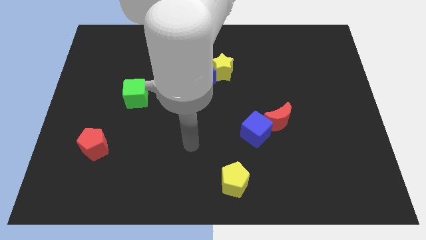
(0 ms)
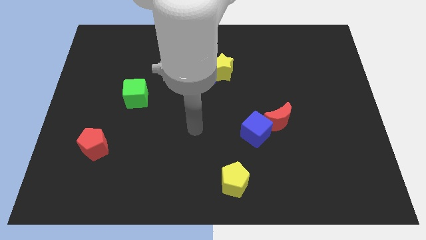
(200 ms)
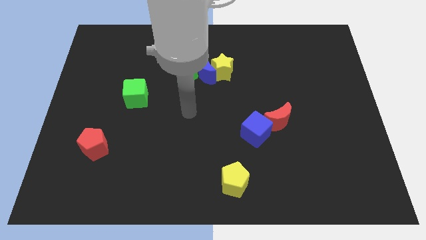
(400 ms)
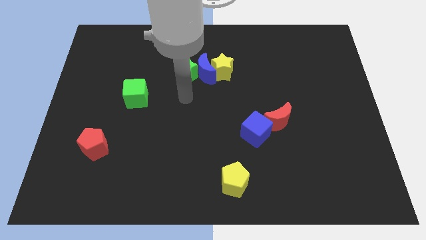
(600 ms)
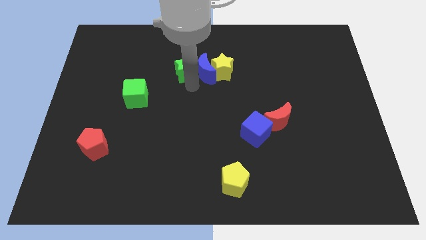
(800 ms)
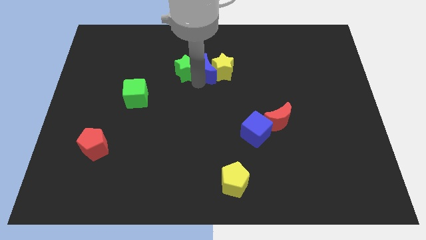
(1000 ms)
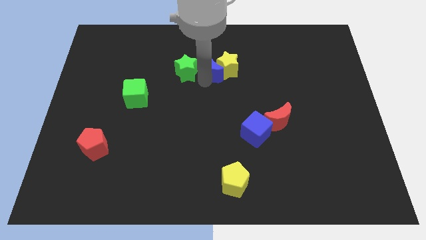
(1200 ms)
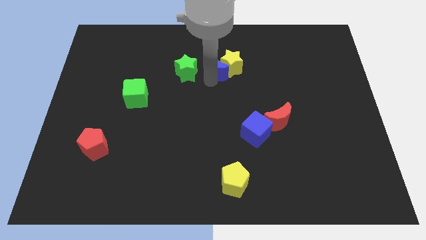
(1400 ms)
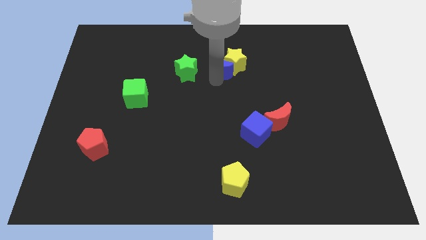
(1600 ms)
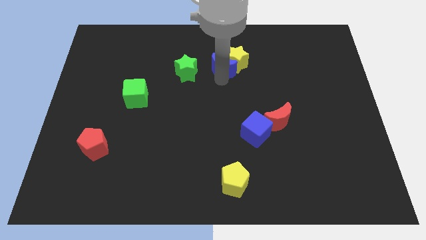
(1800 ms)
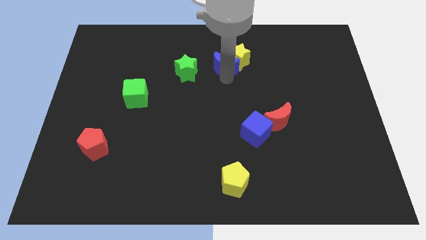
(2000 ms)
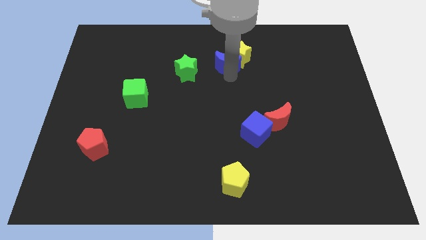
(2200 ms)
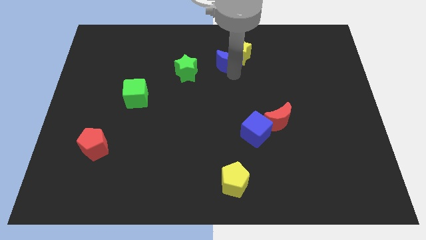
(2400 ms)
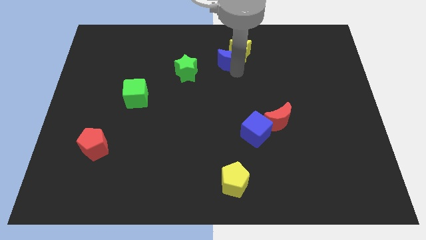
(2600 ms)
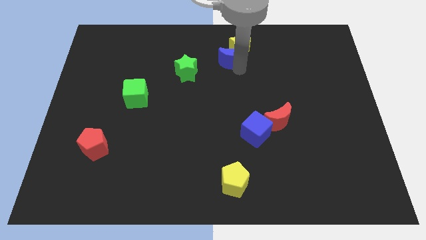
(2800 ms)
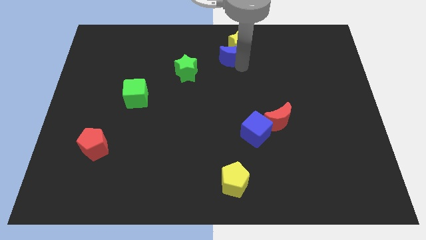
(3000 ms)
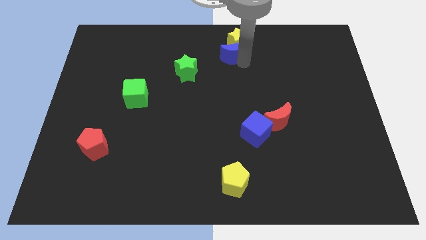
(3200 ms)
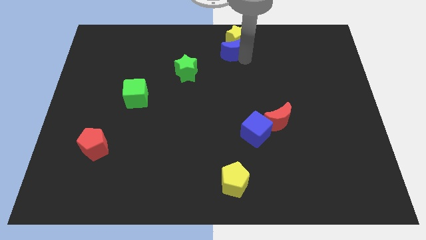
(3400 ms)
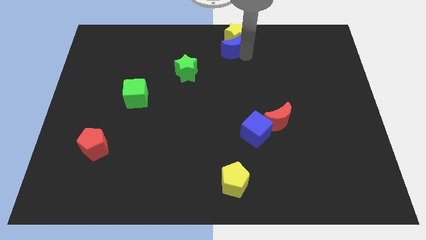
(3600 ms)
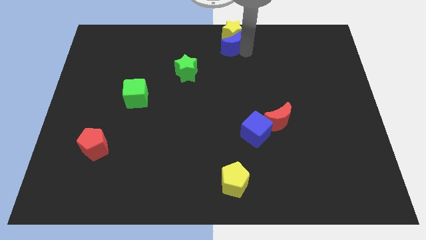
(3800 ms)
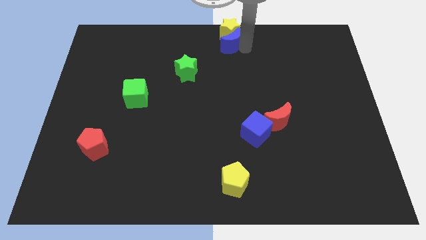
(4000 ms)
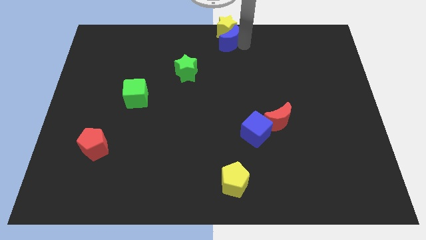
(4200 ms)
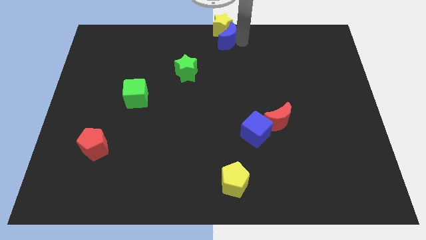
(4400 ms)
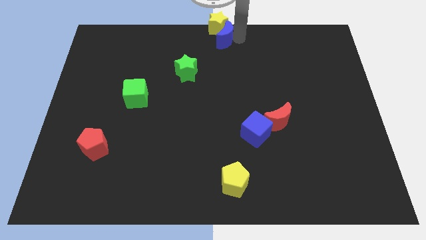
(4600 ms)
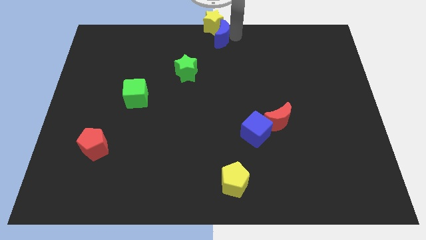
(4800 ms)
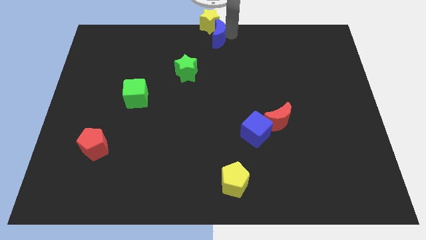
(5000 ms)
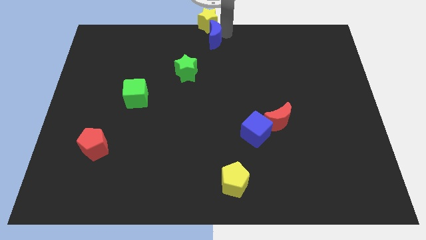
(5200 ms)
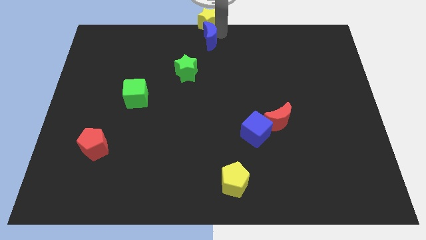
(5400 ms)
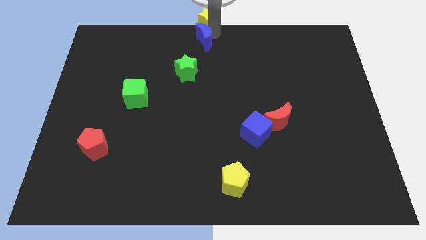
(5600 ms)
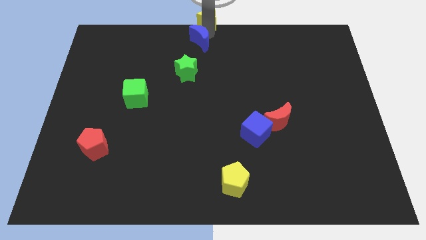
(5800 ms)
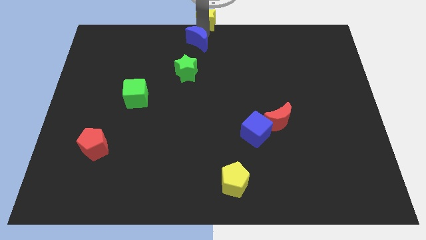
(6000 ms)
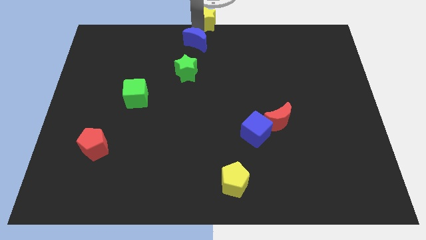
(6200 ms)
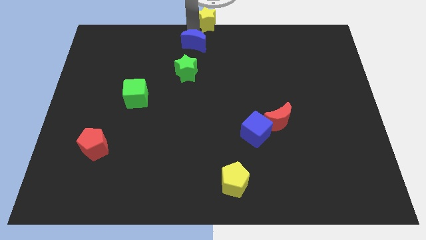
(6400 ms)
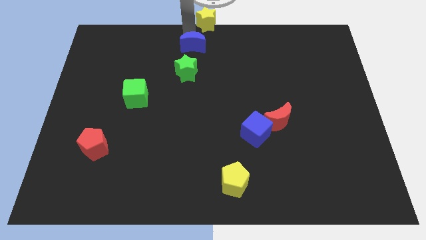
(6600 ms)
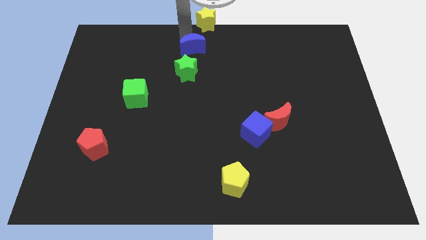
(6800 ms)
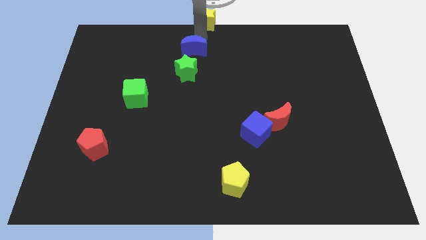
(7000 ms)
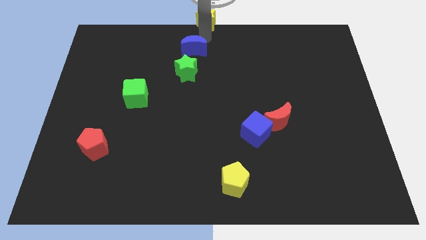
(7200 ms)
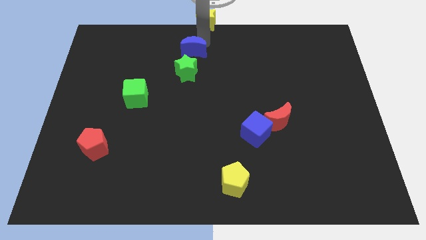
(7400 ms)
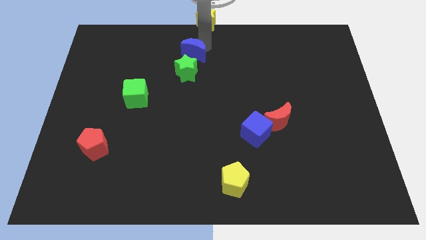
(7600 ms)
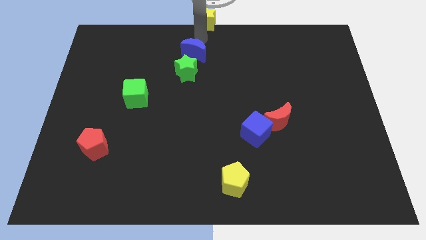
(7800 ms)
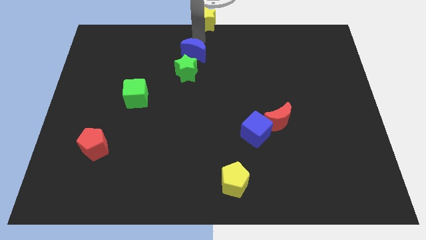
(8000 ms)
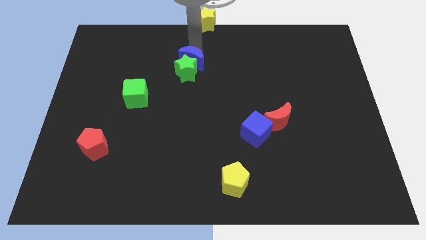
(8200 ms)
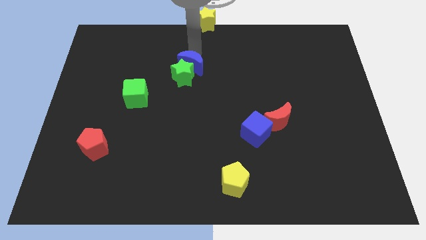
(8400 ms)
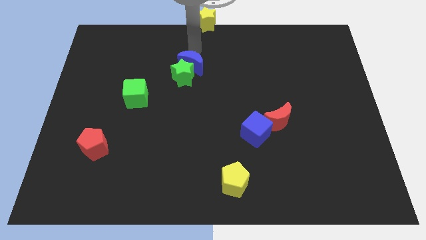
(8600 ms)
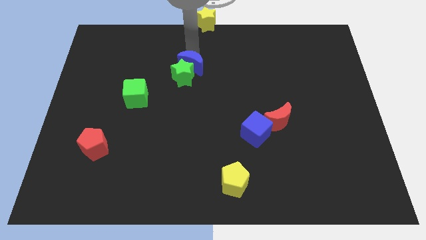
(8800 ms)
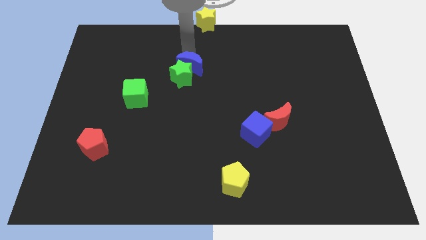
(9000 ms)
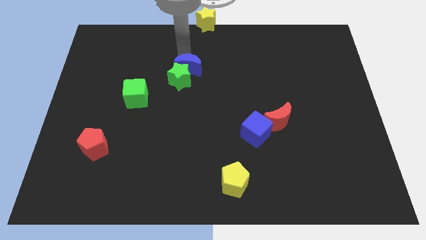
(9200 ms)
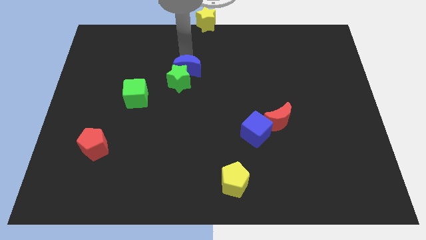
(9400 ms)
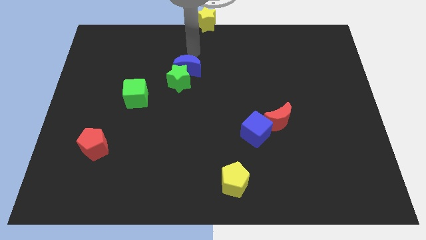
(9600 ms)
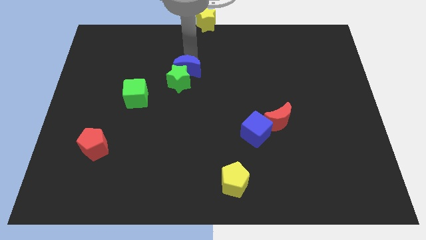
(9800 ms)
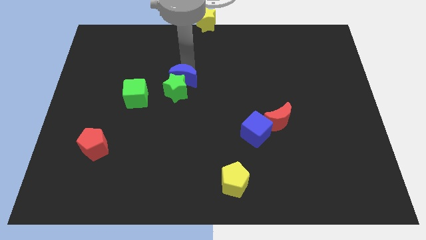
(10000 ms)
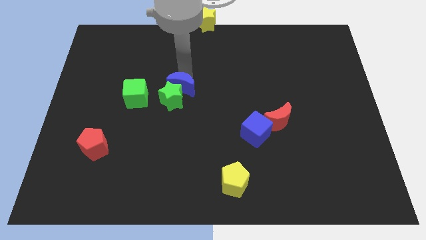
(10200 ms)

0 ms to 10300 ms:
pull the blue moon apart from the yellow star and green star

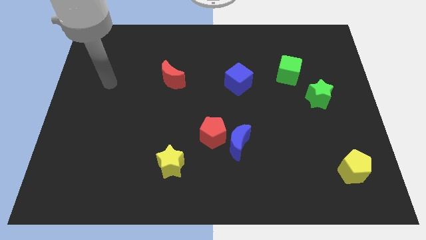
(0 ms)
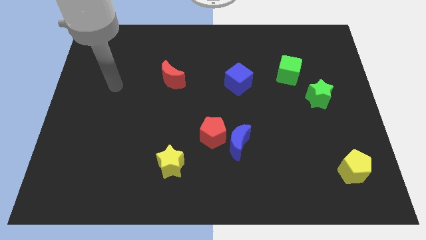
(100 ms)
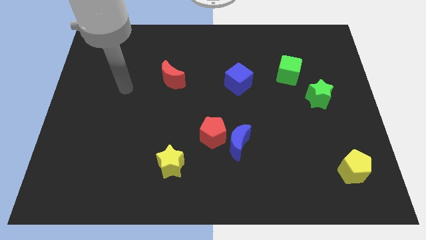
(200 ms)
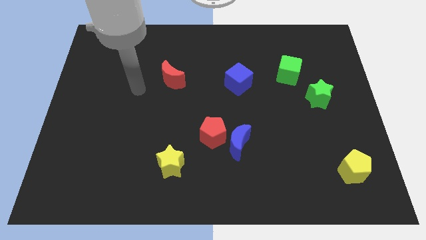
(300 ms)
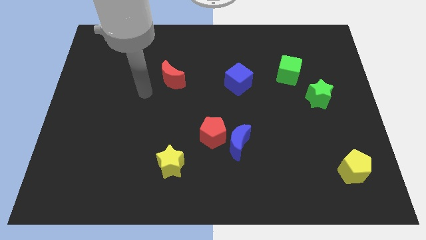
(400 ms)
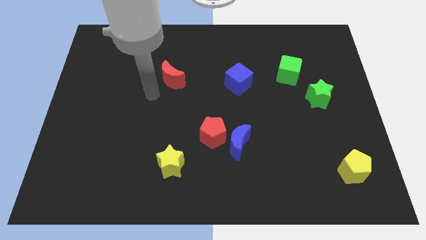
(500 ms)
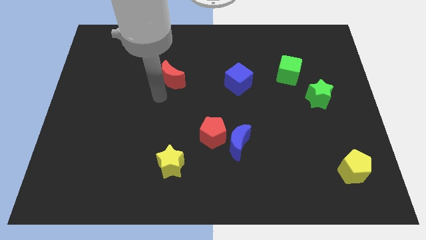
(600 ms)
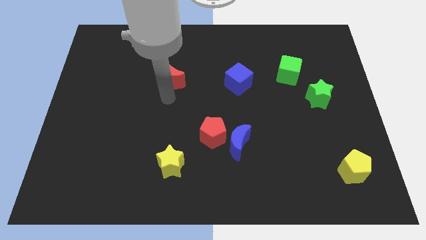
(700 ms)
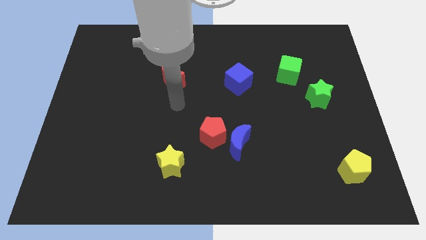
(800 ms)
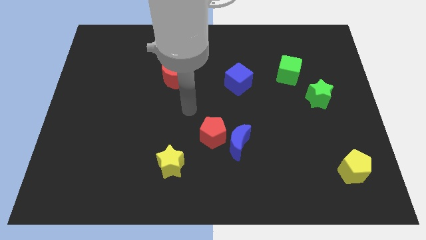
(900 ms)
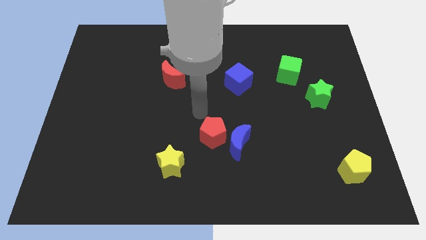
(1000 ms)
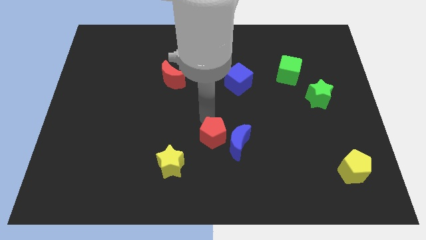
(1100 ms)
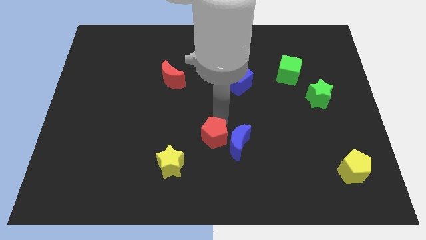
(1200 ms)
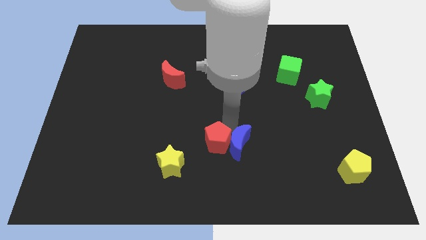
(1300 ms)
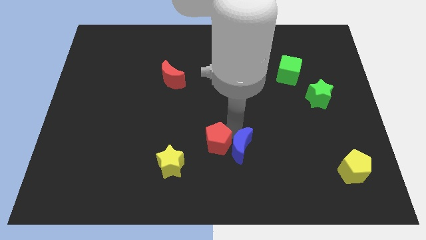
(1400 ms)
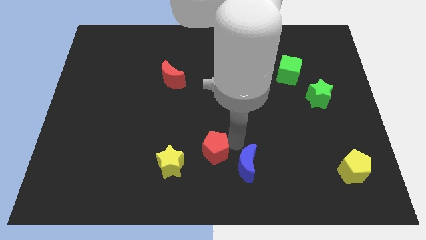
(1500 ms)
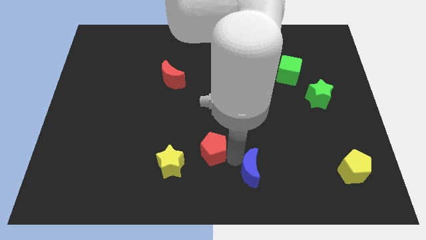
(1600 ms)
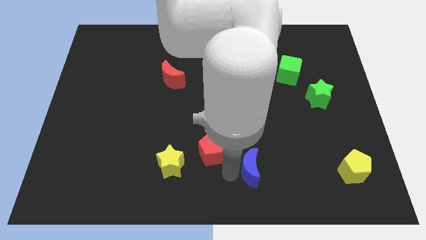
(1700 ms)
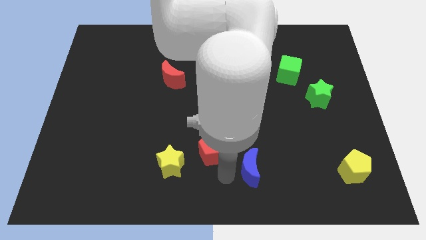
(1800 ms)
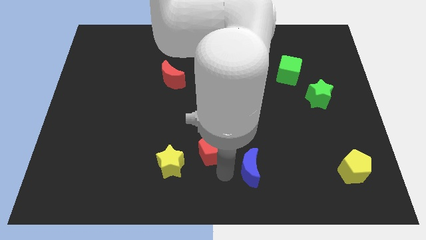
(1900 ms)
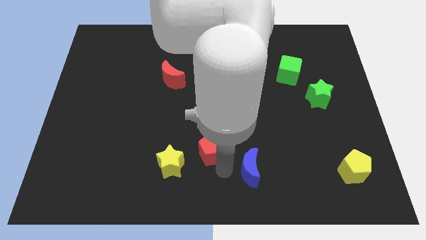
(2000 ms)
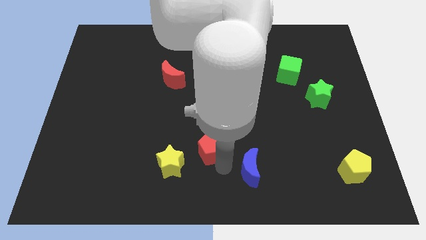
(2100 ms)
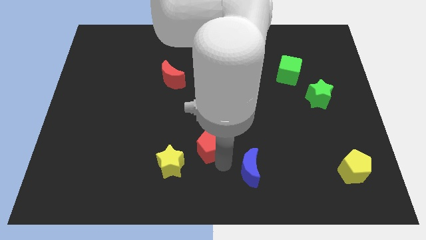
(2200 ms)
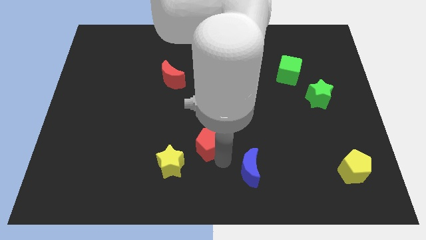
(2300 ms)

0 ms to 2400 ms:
separate the red pentagon from the blue moon

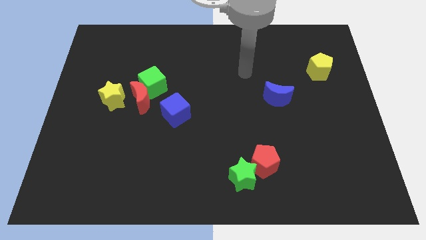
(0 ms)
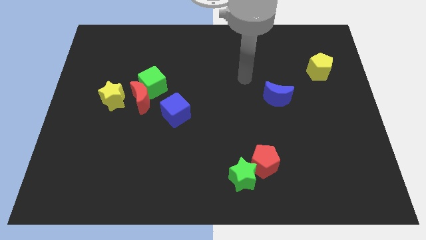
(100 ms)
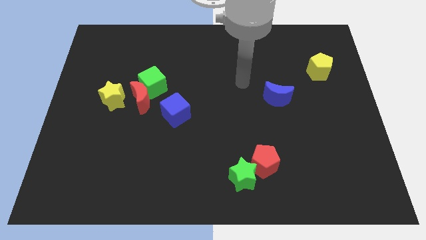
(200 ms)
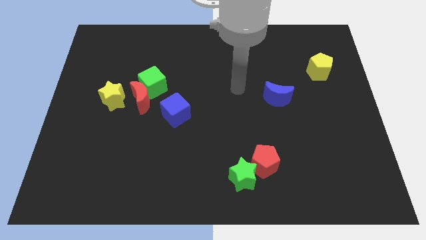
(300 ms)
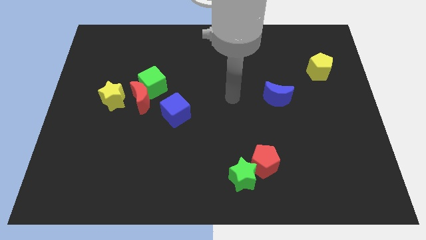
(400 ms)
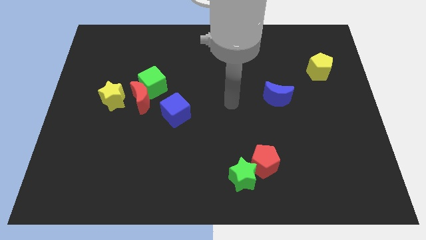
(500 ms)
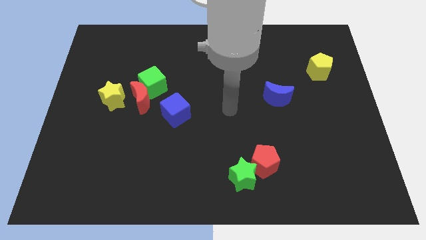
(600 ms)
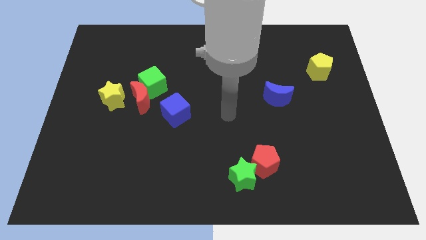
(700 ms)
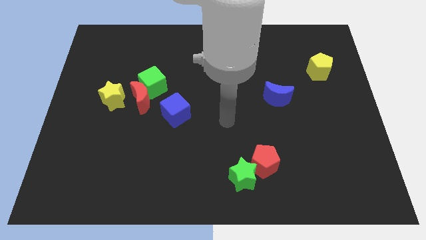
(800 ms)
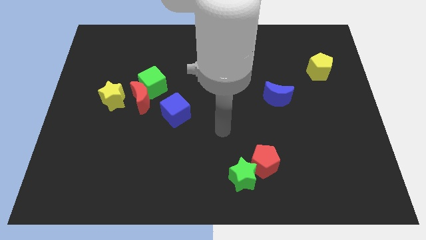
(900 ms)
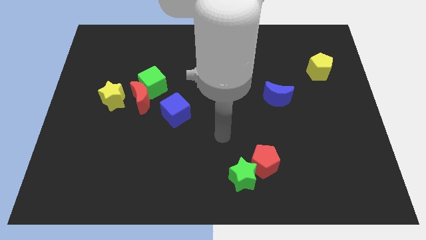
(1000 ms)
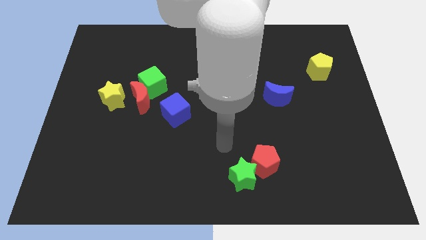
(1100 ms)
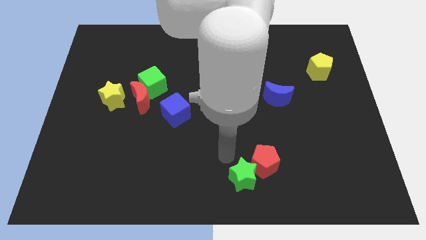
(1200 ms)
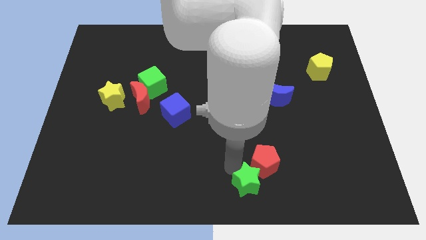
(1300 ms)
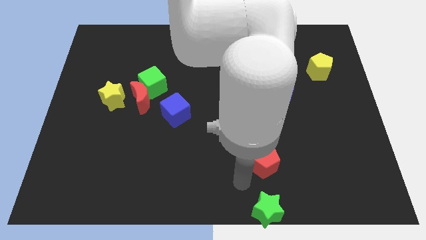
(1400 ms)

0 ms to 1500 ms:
separate the red pentagon from the green star

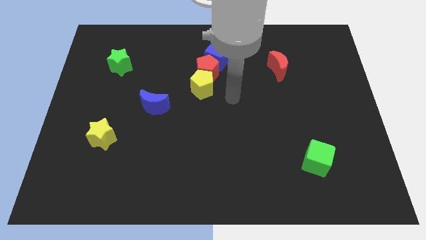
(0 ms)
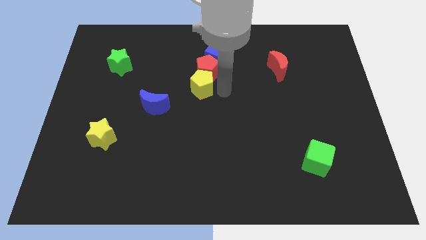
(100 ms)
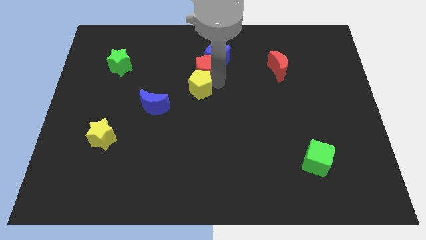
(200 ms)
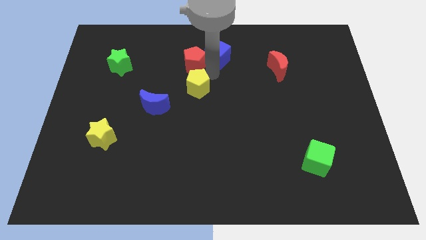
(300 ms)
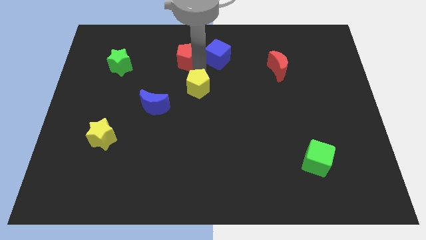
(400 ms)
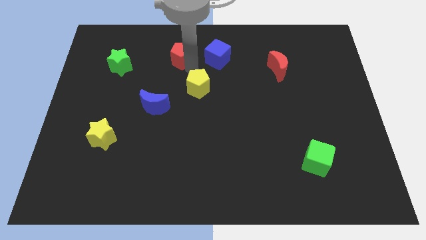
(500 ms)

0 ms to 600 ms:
separate the yellow pentagon from the red pentagon
